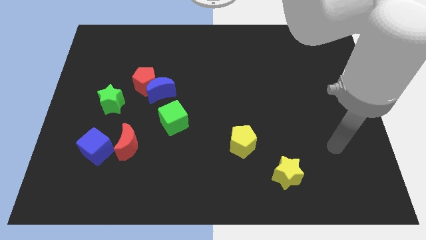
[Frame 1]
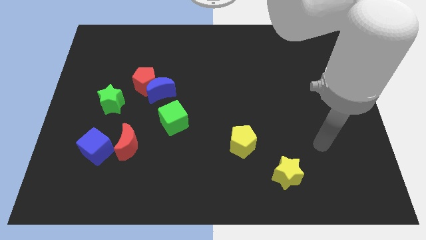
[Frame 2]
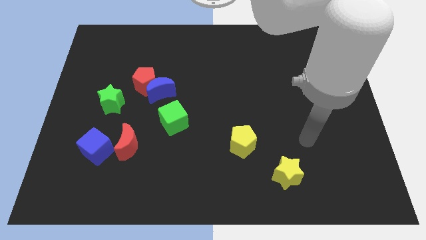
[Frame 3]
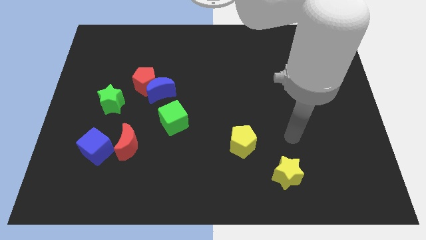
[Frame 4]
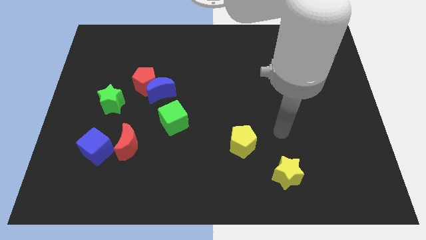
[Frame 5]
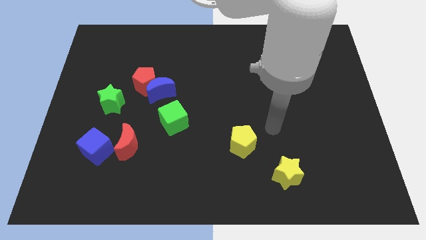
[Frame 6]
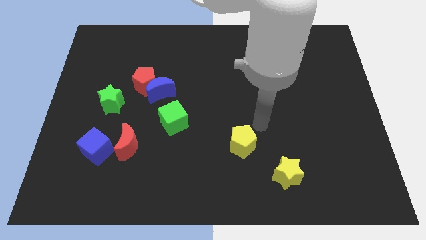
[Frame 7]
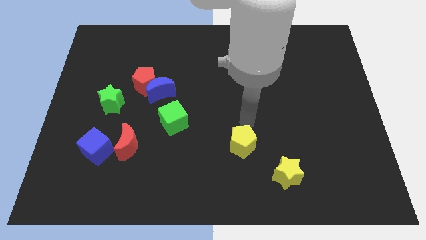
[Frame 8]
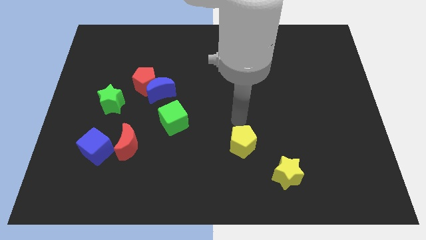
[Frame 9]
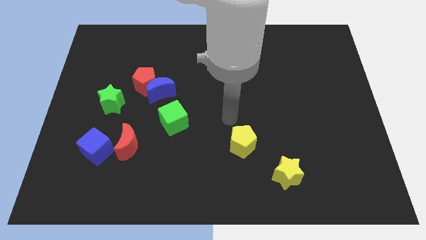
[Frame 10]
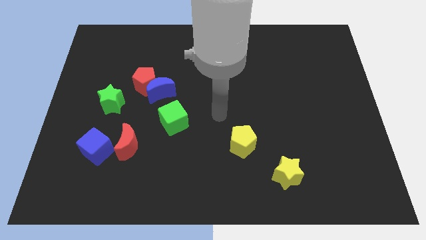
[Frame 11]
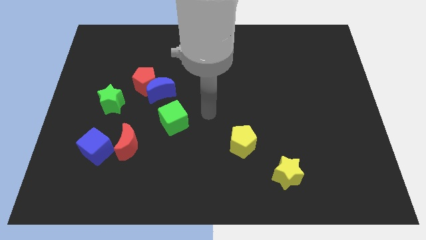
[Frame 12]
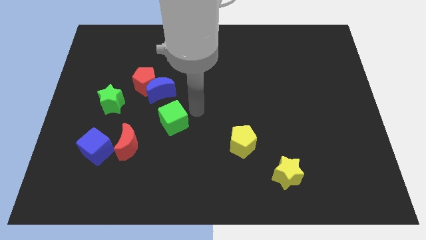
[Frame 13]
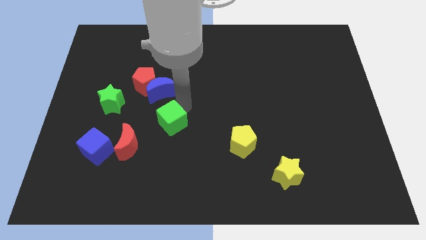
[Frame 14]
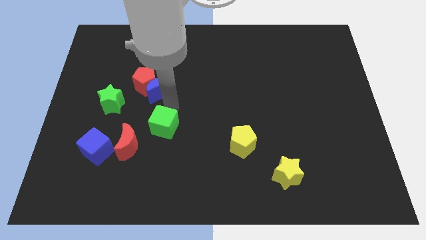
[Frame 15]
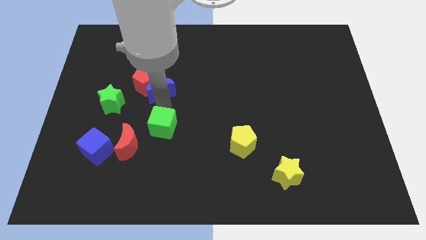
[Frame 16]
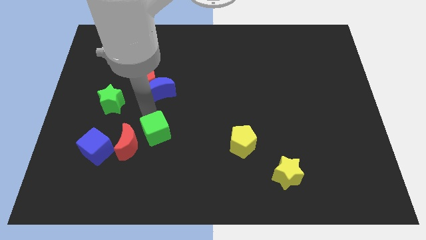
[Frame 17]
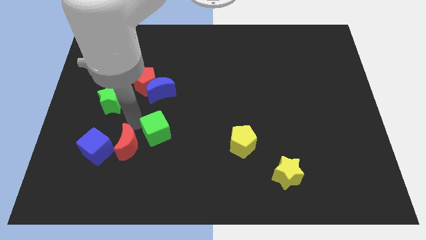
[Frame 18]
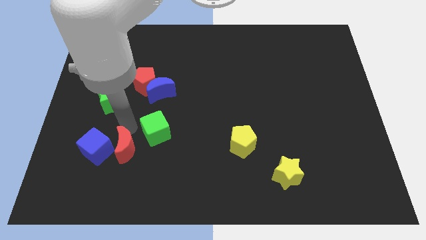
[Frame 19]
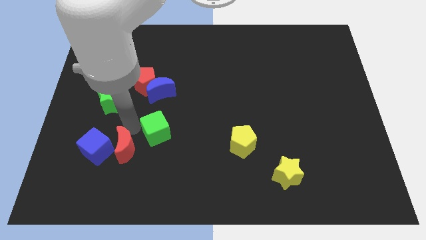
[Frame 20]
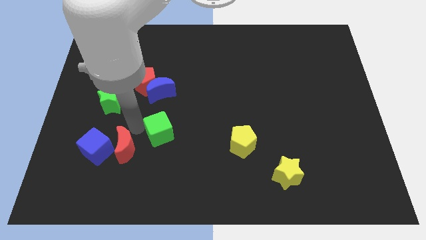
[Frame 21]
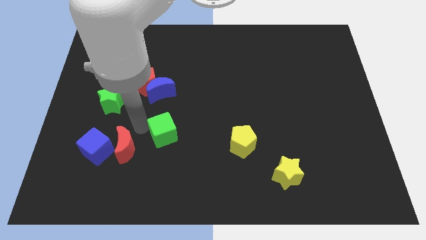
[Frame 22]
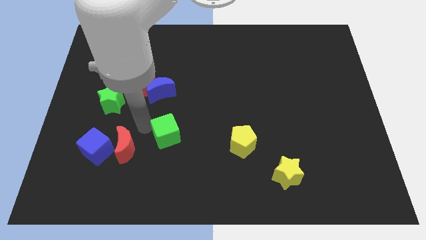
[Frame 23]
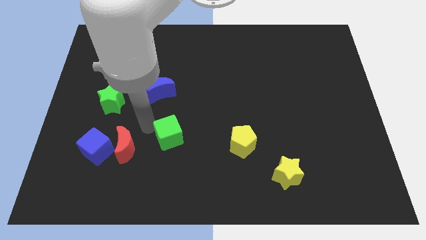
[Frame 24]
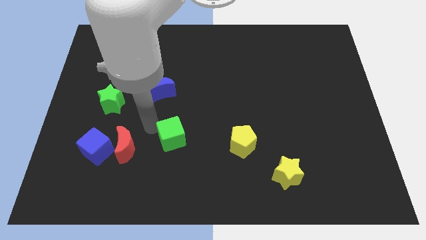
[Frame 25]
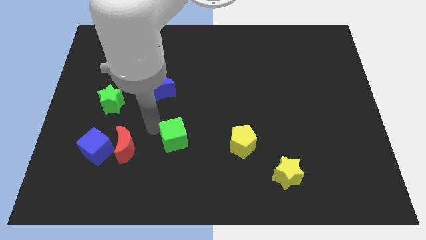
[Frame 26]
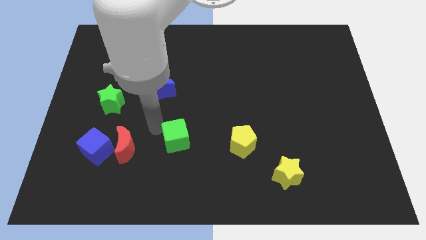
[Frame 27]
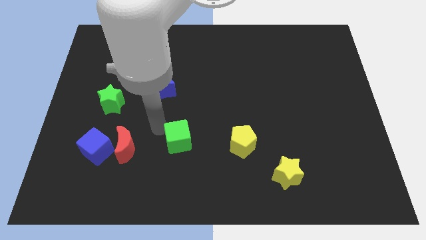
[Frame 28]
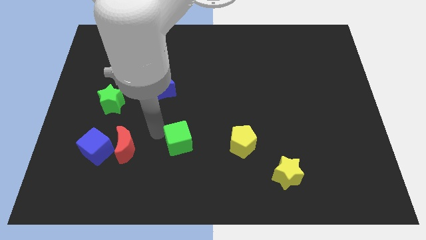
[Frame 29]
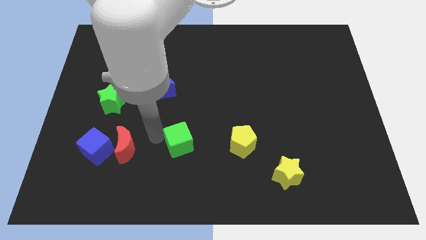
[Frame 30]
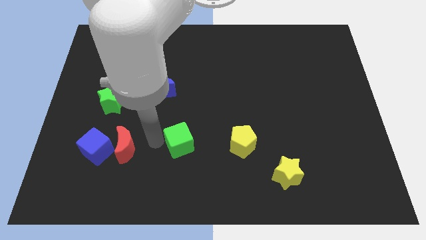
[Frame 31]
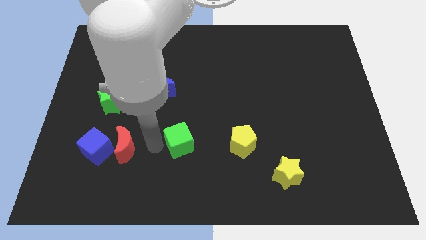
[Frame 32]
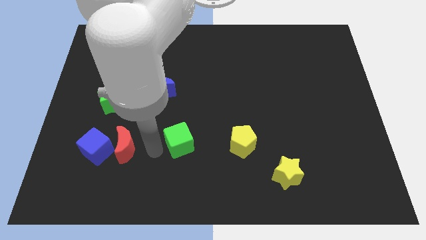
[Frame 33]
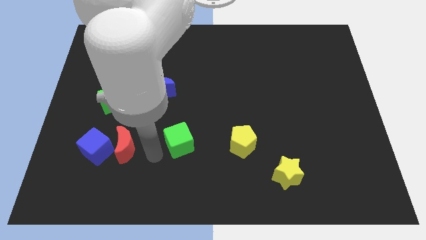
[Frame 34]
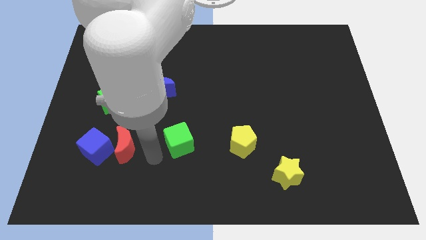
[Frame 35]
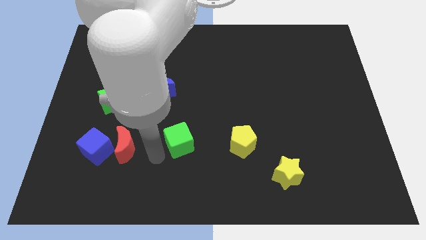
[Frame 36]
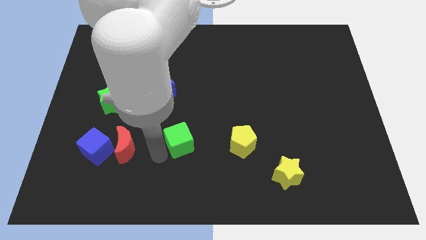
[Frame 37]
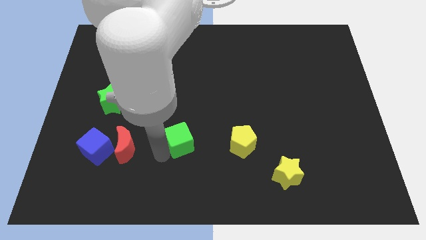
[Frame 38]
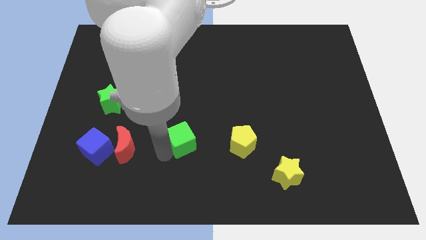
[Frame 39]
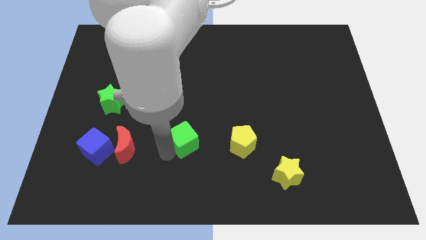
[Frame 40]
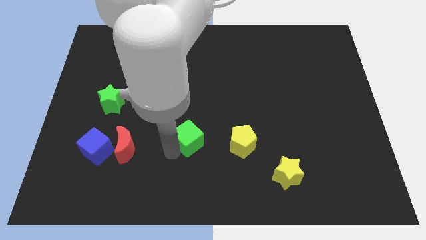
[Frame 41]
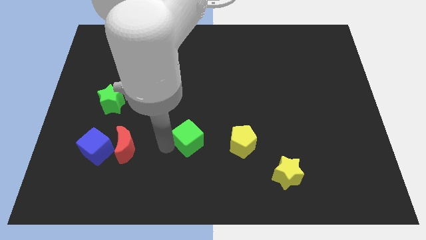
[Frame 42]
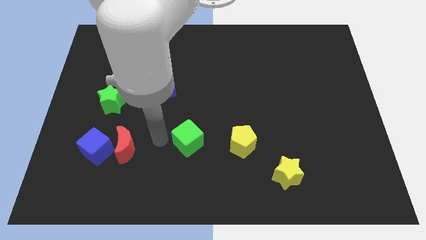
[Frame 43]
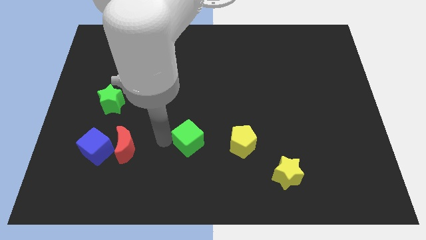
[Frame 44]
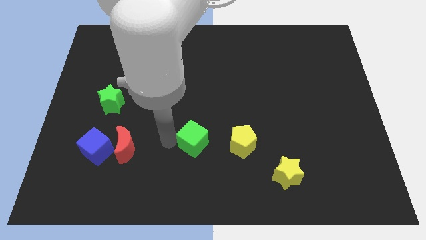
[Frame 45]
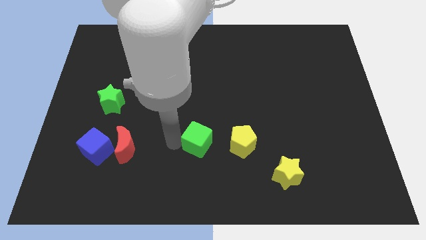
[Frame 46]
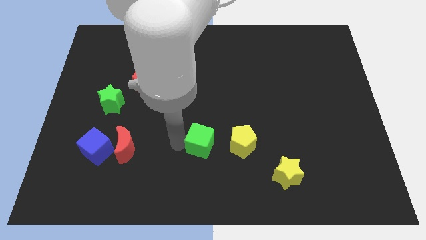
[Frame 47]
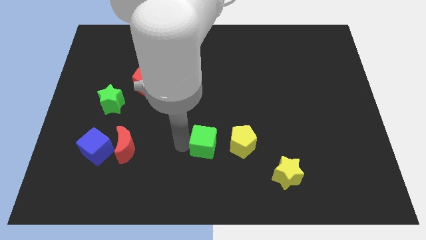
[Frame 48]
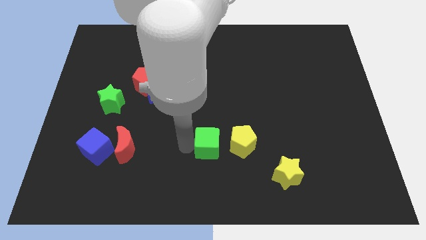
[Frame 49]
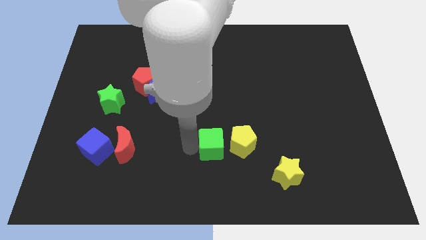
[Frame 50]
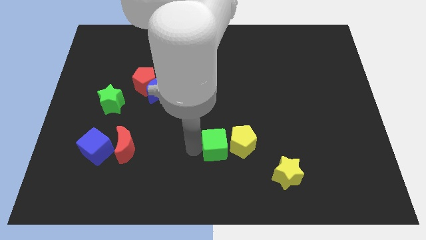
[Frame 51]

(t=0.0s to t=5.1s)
push the green cube towards the yellow pentagon

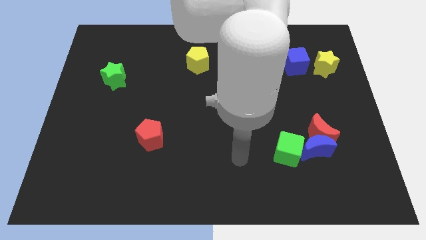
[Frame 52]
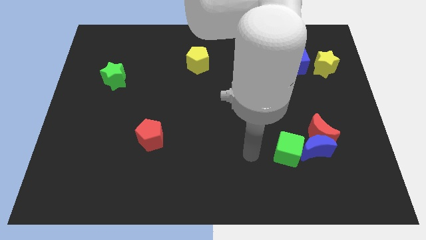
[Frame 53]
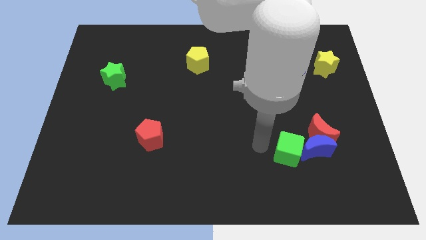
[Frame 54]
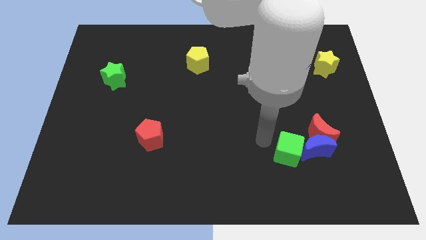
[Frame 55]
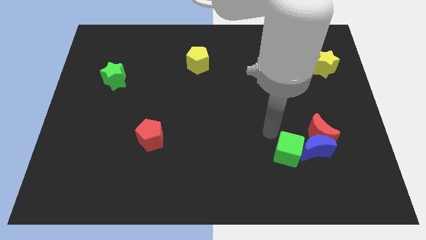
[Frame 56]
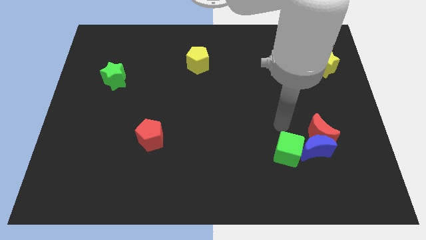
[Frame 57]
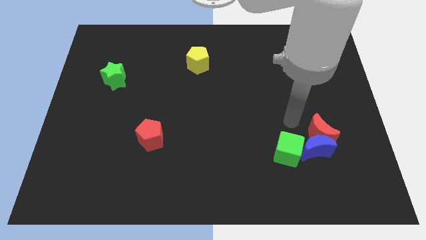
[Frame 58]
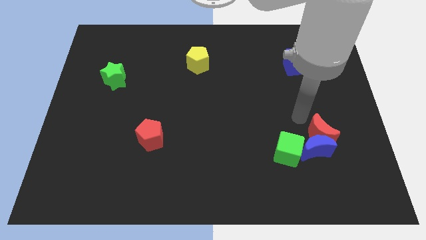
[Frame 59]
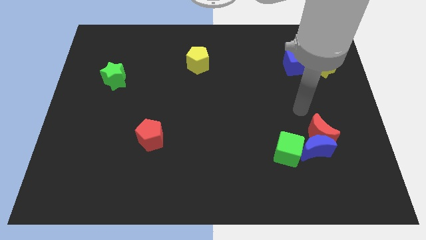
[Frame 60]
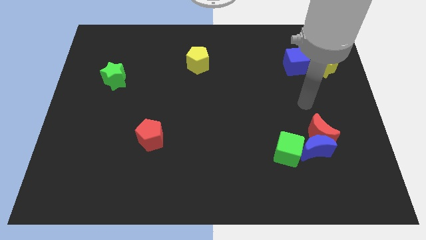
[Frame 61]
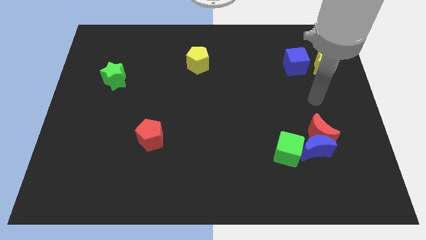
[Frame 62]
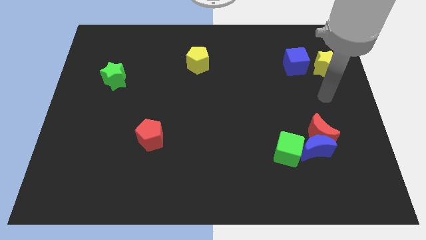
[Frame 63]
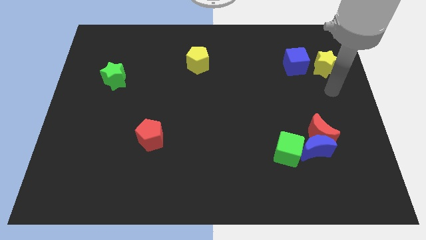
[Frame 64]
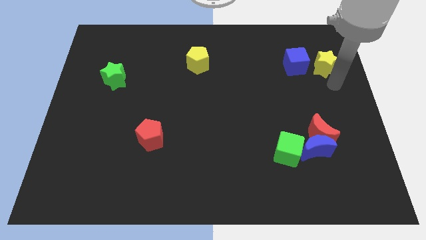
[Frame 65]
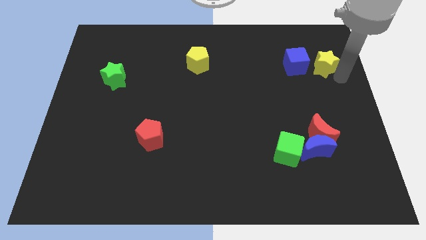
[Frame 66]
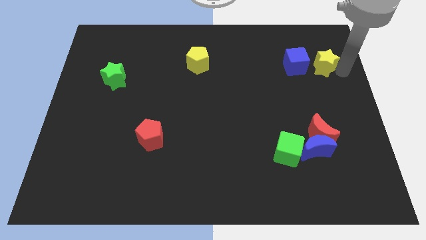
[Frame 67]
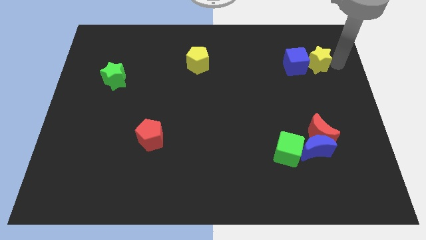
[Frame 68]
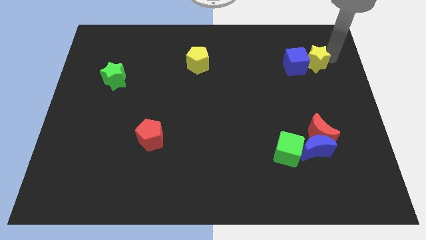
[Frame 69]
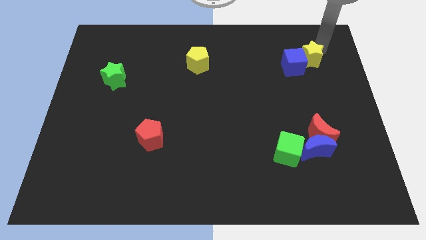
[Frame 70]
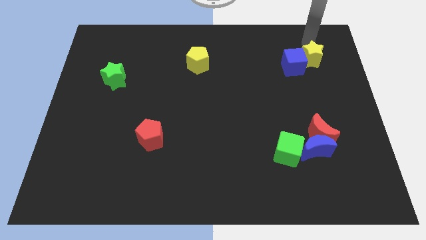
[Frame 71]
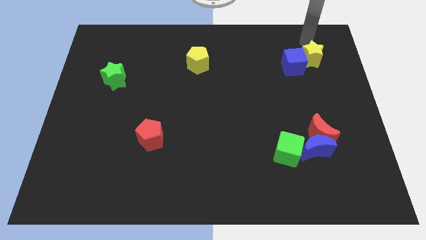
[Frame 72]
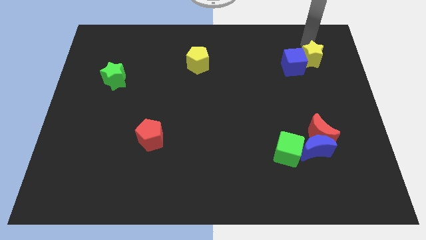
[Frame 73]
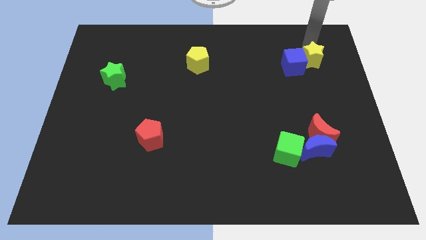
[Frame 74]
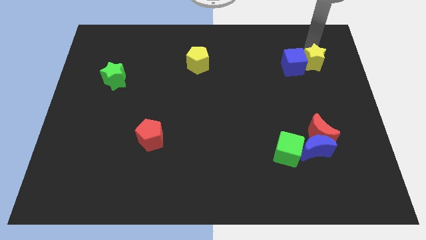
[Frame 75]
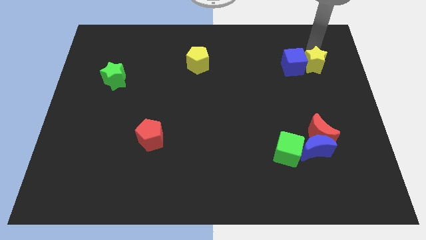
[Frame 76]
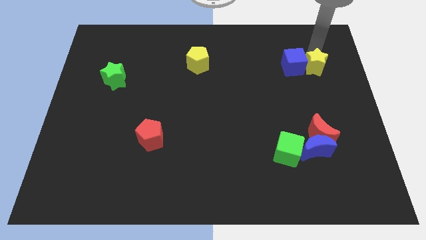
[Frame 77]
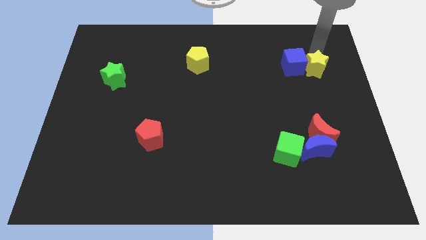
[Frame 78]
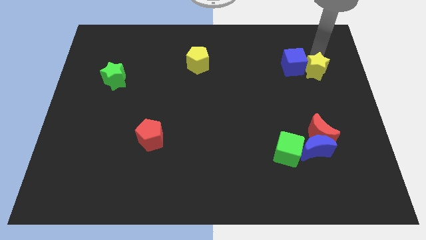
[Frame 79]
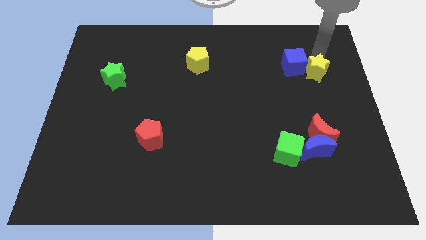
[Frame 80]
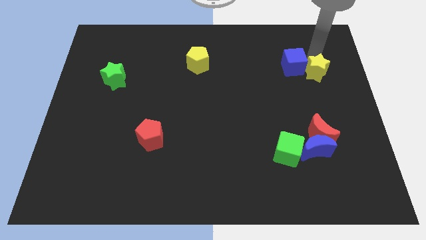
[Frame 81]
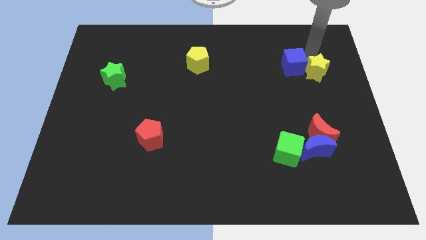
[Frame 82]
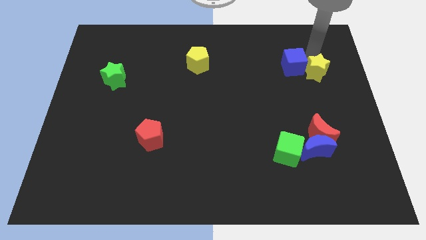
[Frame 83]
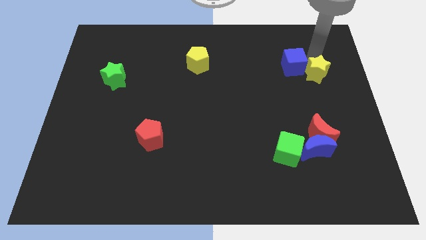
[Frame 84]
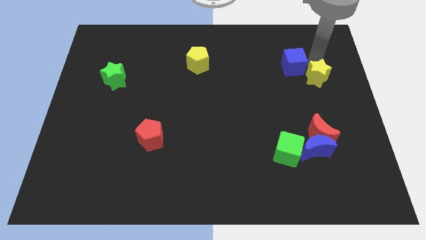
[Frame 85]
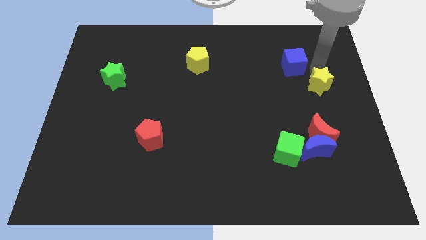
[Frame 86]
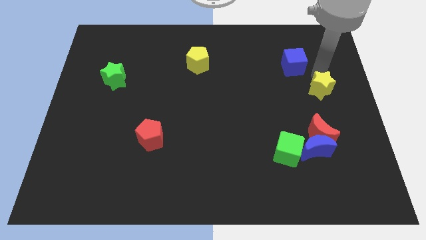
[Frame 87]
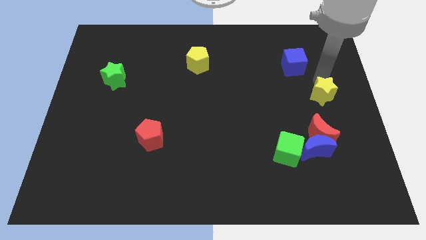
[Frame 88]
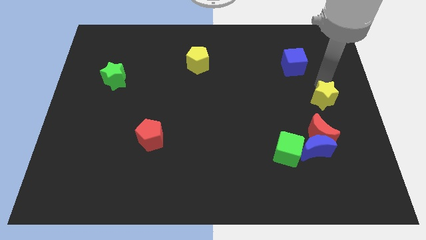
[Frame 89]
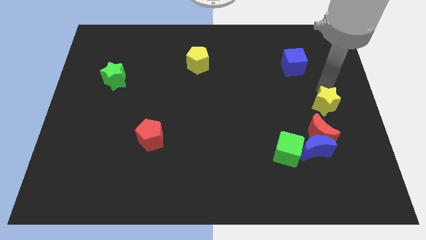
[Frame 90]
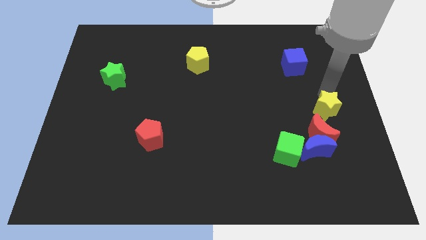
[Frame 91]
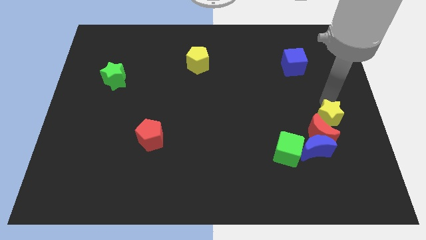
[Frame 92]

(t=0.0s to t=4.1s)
slide the yellow star to the red moon
